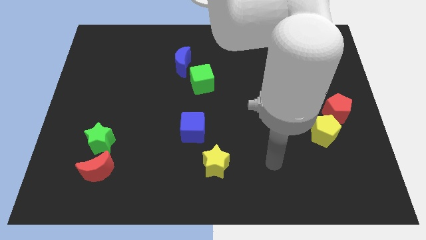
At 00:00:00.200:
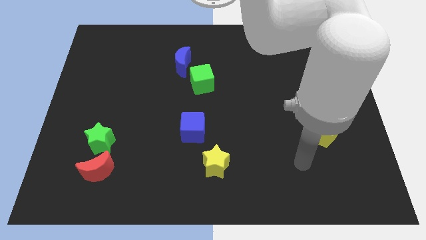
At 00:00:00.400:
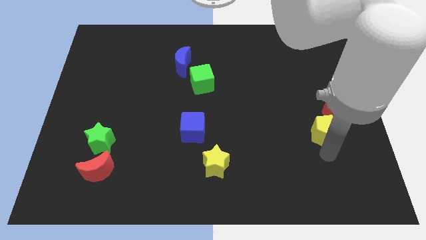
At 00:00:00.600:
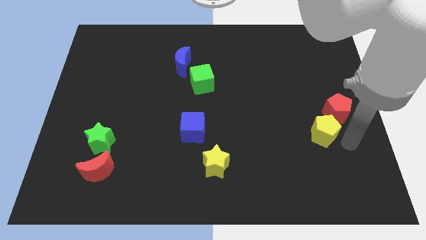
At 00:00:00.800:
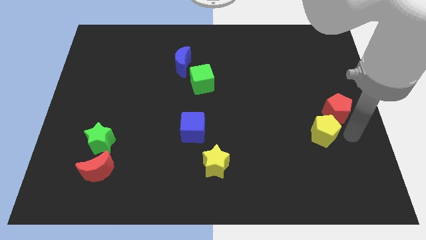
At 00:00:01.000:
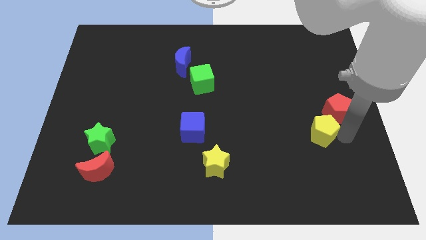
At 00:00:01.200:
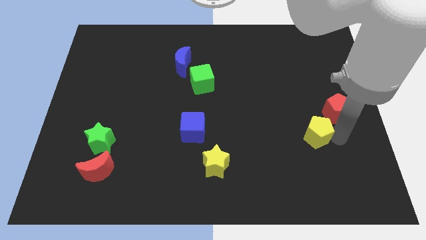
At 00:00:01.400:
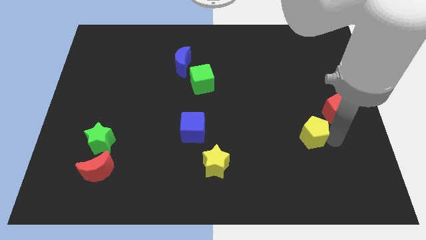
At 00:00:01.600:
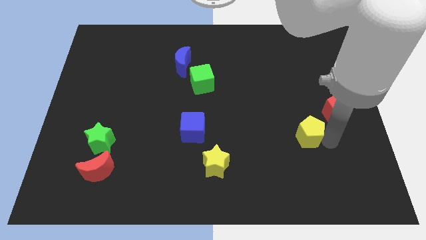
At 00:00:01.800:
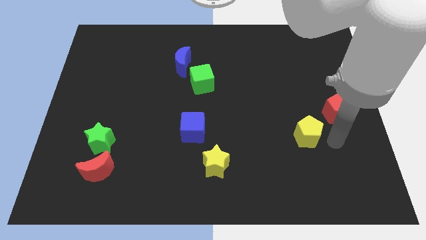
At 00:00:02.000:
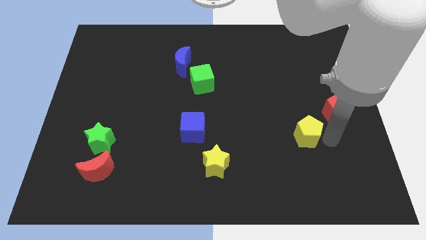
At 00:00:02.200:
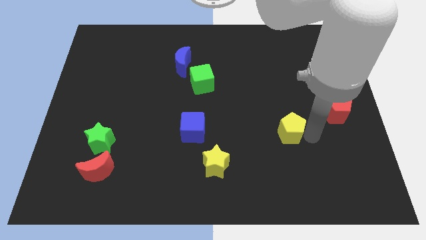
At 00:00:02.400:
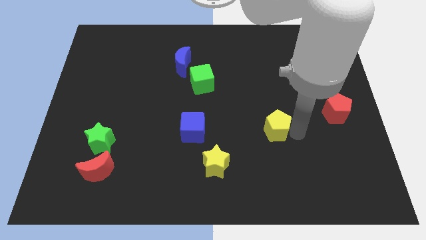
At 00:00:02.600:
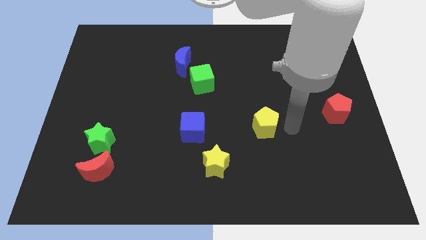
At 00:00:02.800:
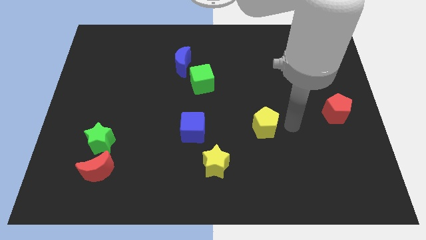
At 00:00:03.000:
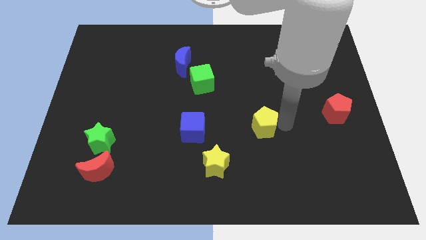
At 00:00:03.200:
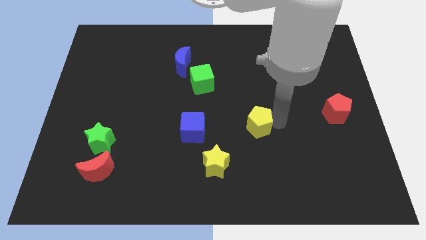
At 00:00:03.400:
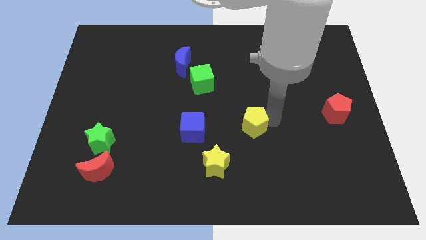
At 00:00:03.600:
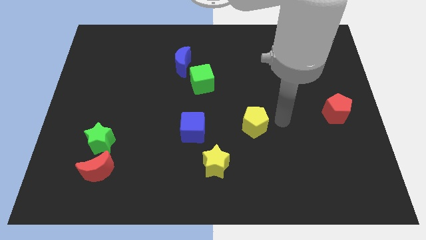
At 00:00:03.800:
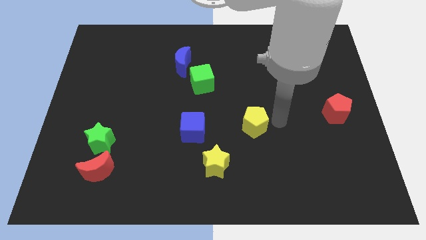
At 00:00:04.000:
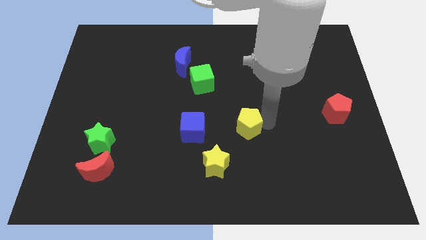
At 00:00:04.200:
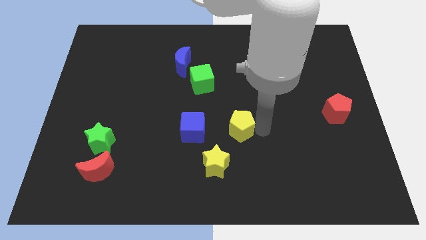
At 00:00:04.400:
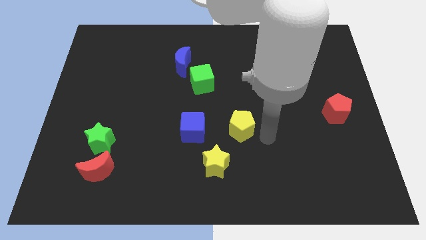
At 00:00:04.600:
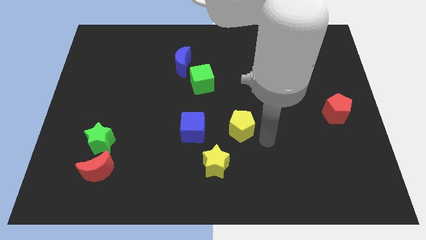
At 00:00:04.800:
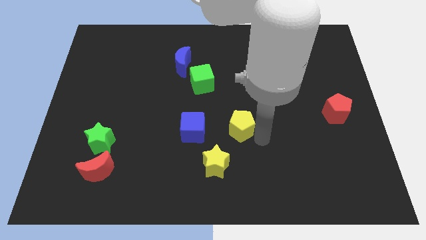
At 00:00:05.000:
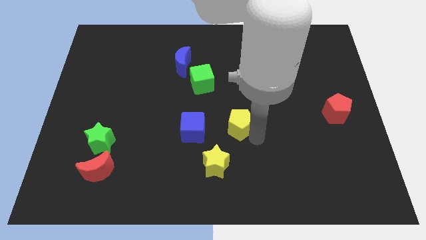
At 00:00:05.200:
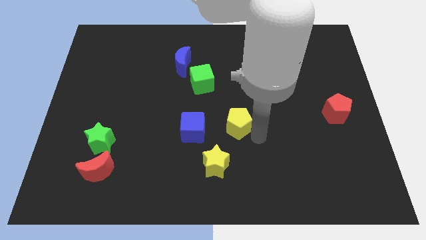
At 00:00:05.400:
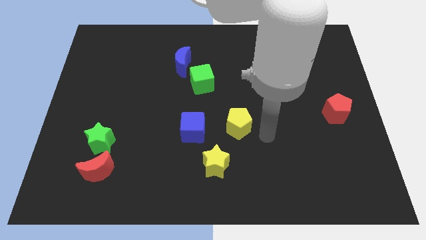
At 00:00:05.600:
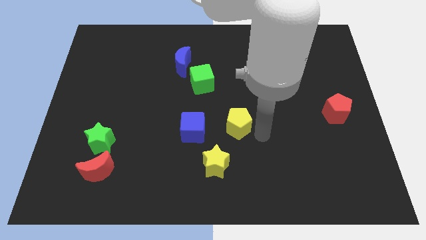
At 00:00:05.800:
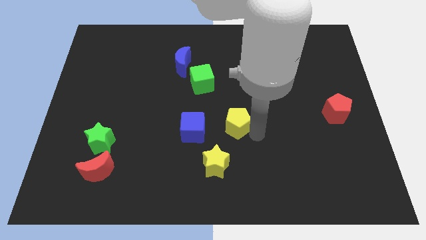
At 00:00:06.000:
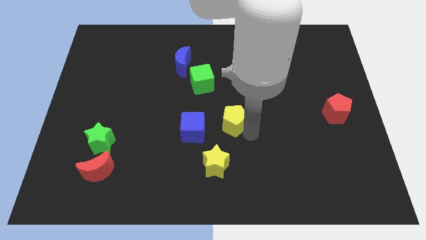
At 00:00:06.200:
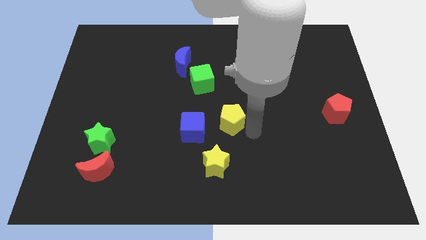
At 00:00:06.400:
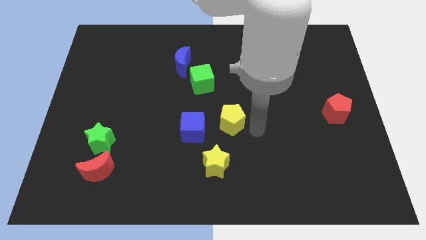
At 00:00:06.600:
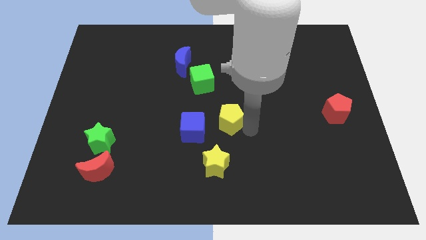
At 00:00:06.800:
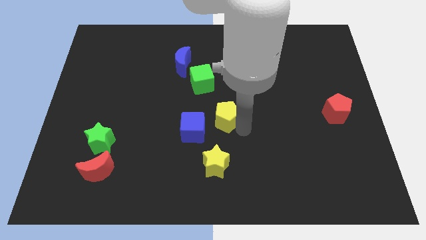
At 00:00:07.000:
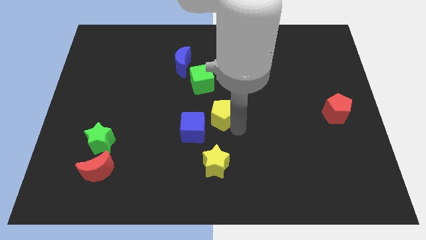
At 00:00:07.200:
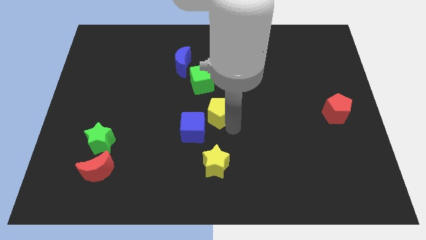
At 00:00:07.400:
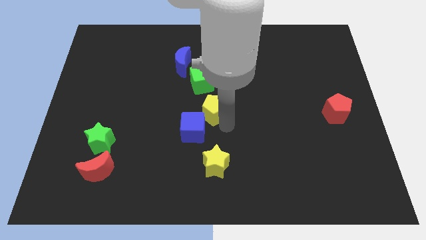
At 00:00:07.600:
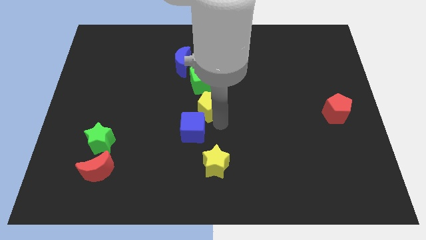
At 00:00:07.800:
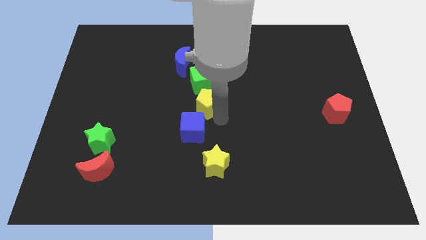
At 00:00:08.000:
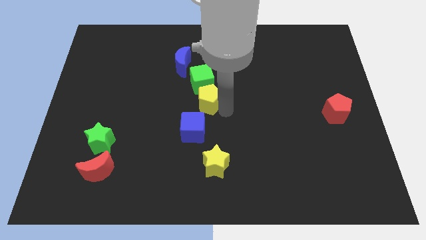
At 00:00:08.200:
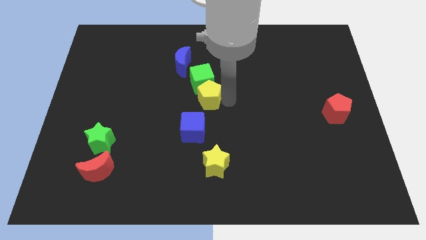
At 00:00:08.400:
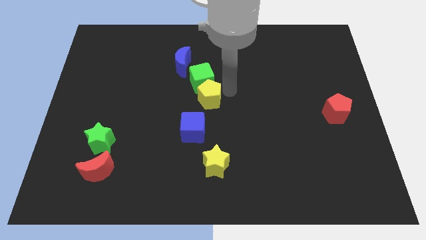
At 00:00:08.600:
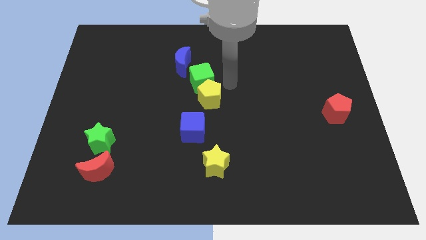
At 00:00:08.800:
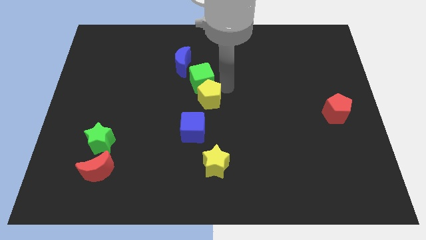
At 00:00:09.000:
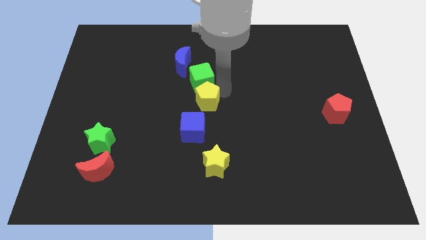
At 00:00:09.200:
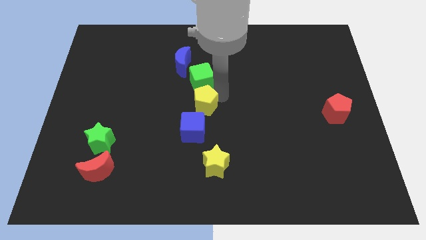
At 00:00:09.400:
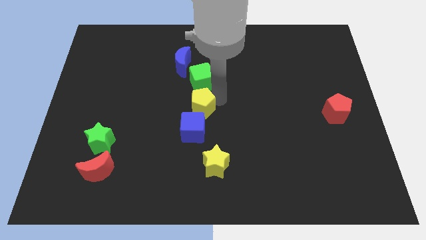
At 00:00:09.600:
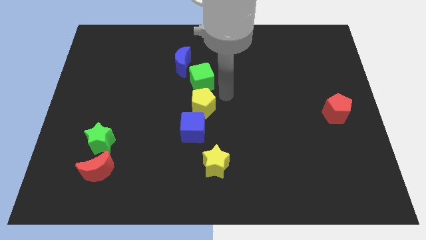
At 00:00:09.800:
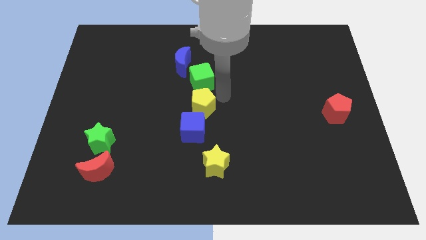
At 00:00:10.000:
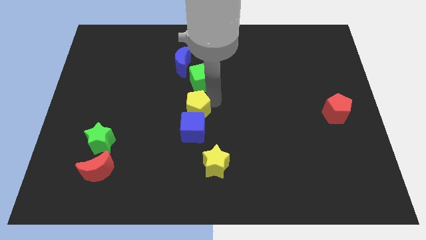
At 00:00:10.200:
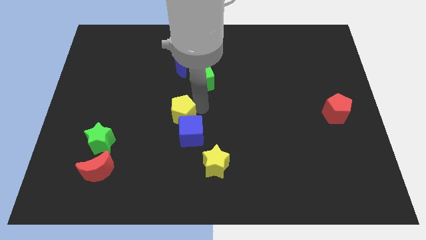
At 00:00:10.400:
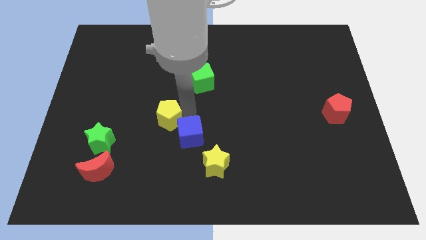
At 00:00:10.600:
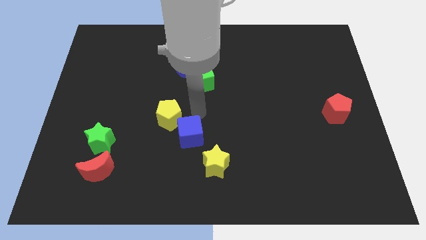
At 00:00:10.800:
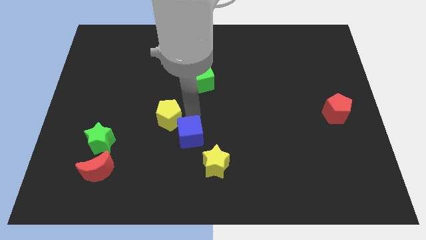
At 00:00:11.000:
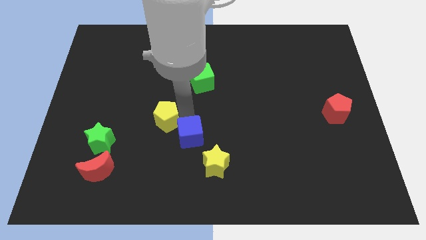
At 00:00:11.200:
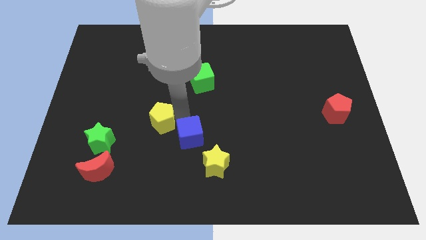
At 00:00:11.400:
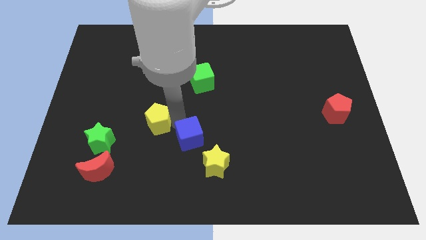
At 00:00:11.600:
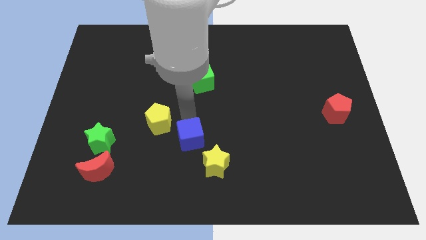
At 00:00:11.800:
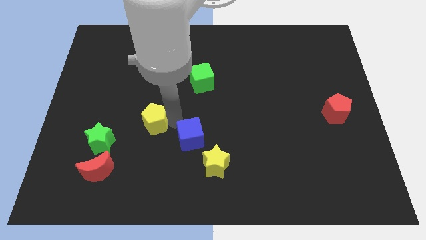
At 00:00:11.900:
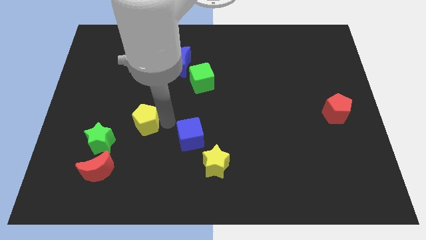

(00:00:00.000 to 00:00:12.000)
slide the yellow pentagon diagonally up and to the right of the green star

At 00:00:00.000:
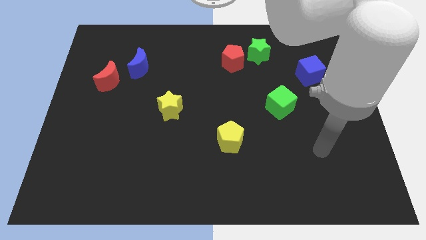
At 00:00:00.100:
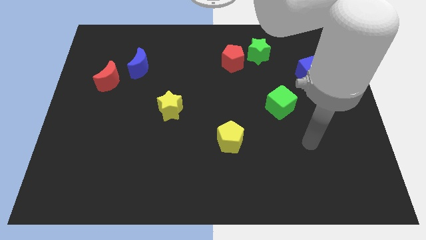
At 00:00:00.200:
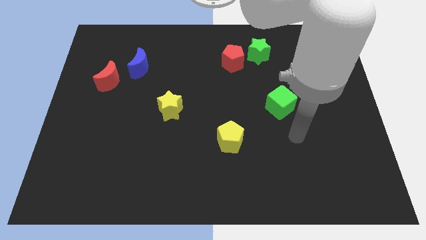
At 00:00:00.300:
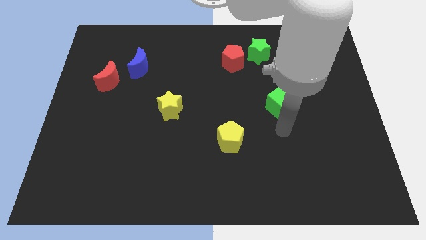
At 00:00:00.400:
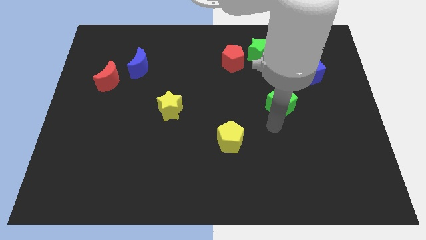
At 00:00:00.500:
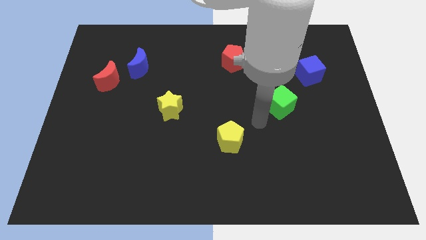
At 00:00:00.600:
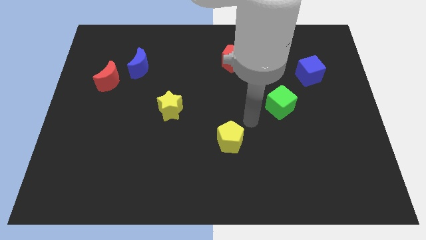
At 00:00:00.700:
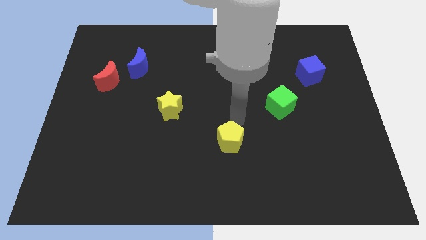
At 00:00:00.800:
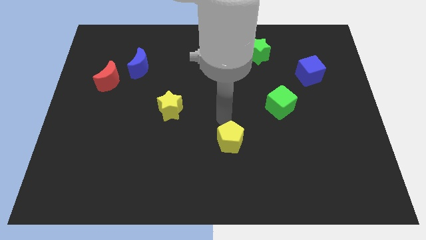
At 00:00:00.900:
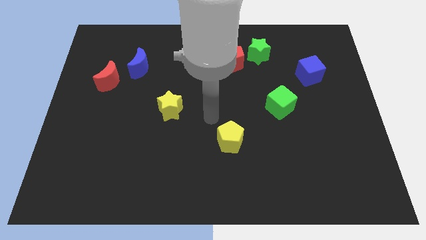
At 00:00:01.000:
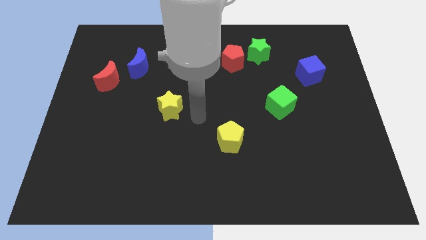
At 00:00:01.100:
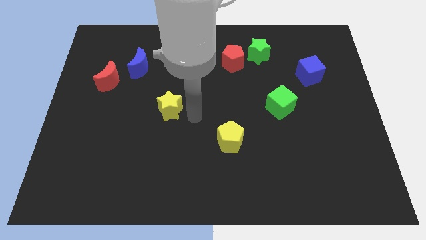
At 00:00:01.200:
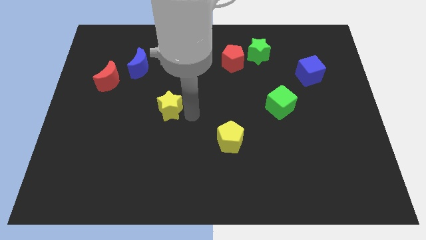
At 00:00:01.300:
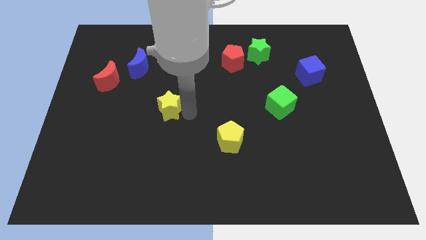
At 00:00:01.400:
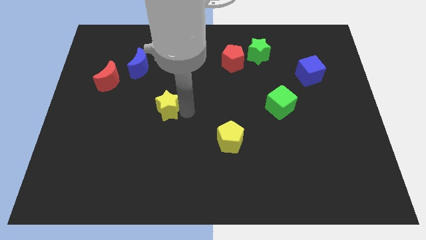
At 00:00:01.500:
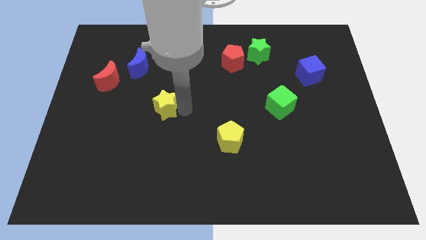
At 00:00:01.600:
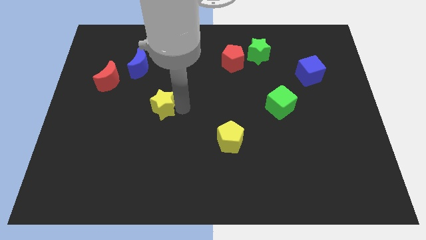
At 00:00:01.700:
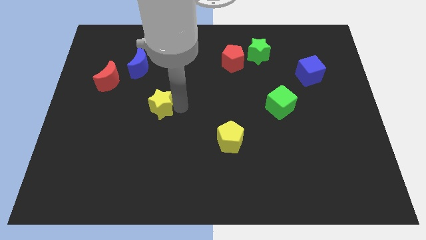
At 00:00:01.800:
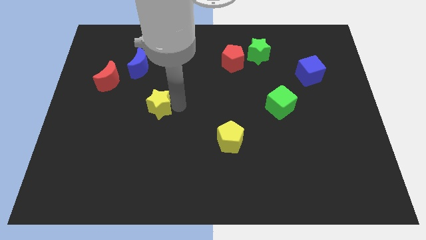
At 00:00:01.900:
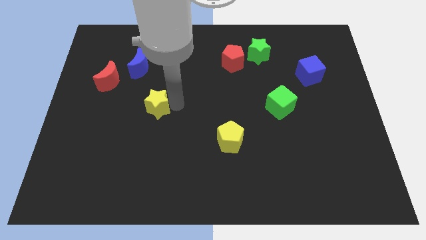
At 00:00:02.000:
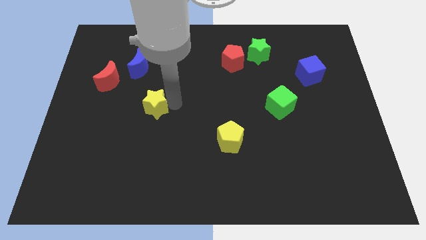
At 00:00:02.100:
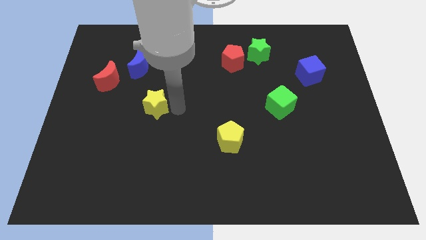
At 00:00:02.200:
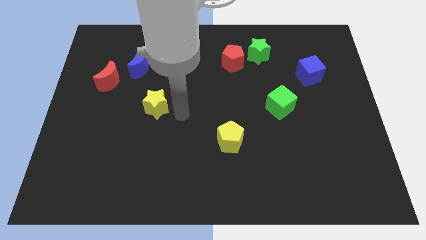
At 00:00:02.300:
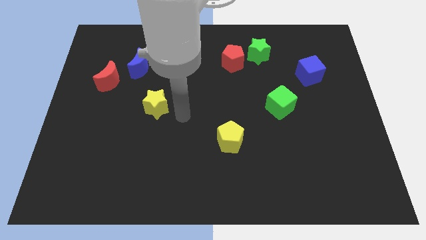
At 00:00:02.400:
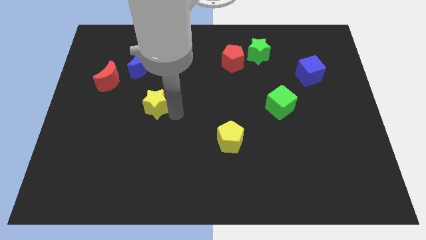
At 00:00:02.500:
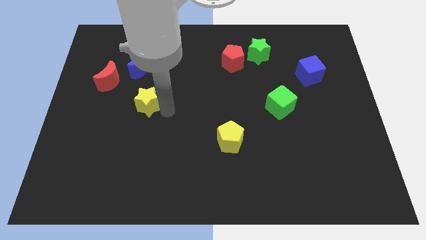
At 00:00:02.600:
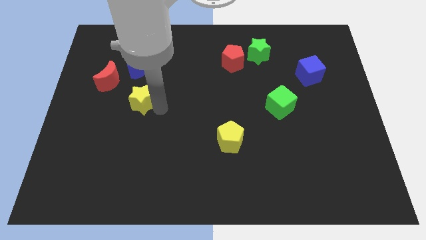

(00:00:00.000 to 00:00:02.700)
move the yellow star diagonally down and to the right of the red moon
